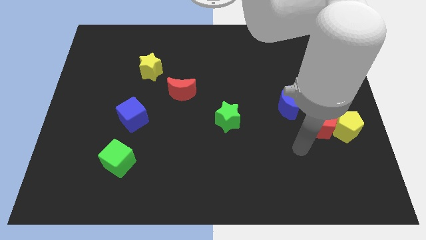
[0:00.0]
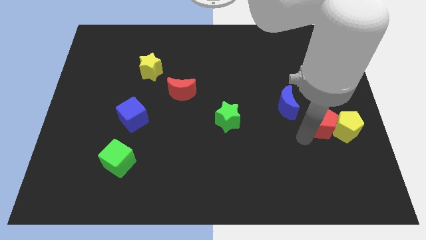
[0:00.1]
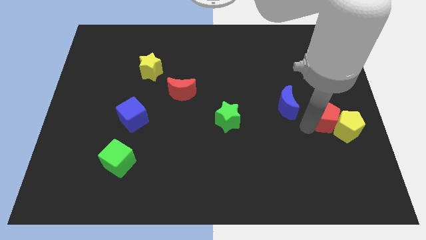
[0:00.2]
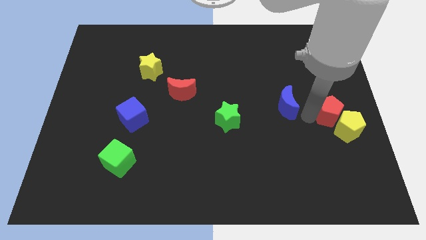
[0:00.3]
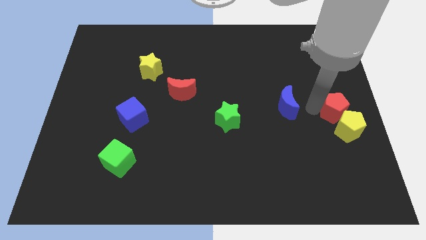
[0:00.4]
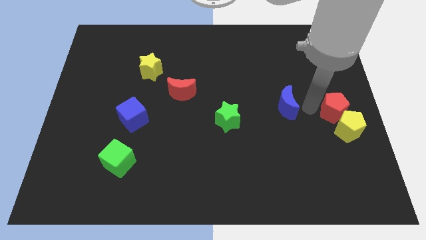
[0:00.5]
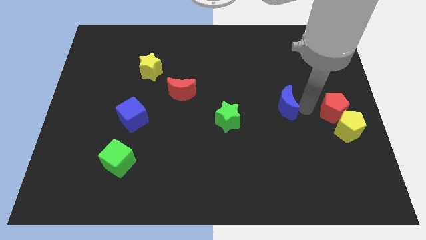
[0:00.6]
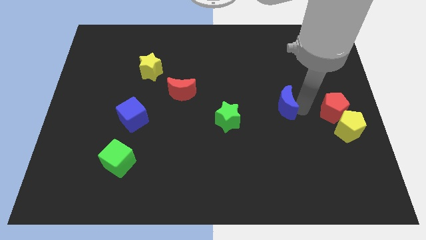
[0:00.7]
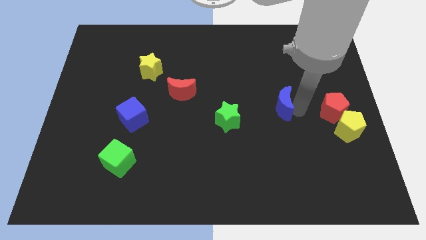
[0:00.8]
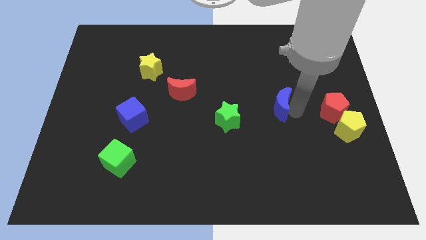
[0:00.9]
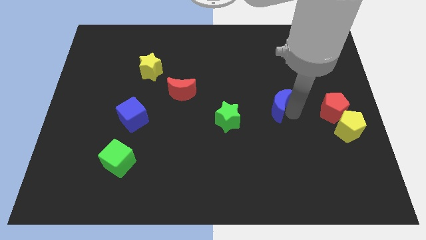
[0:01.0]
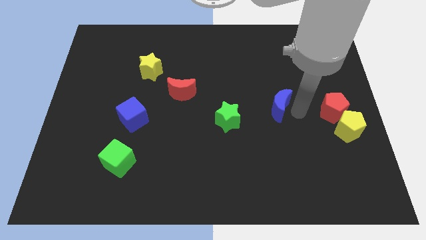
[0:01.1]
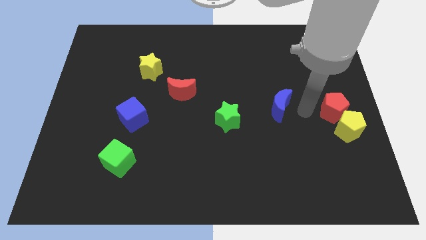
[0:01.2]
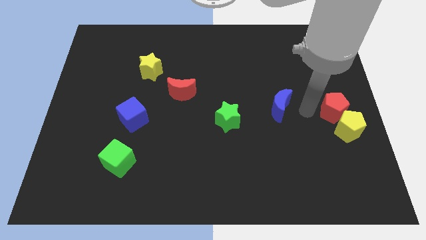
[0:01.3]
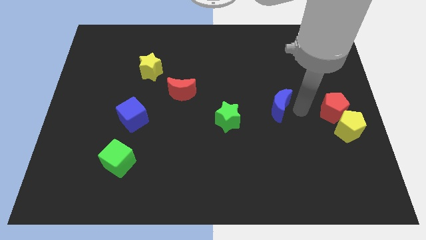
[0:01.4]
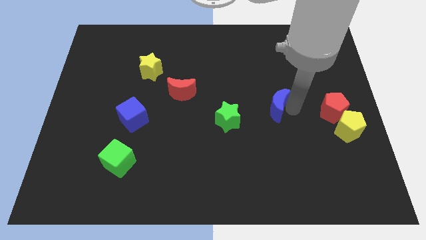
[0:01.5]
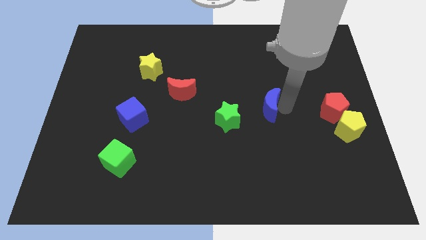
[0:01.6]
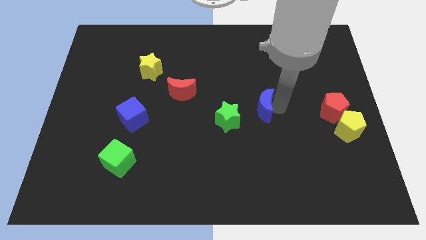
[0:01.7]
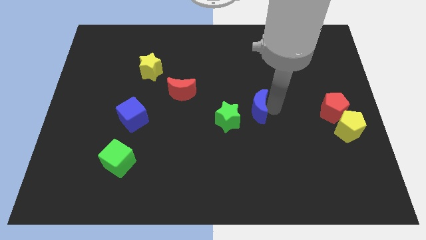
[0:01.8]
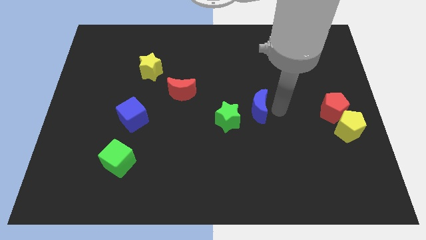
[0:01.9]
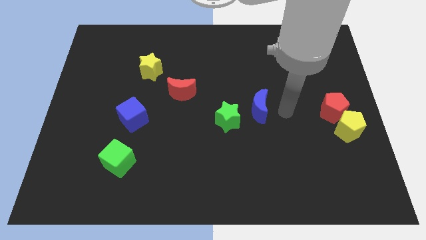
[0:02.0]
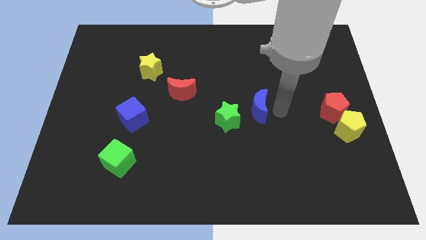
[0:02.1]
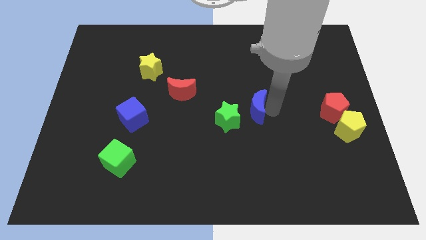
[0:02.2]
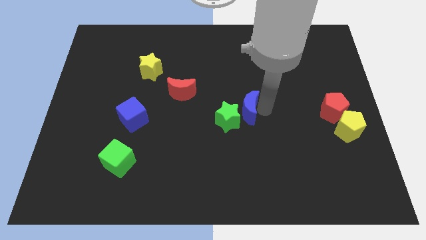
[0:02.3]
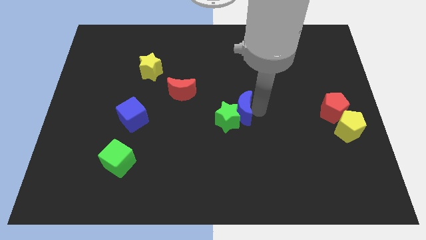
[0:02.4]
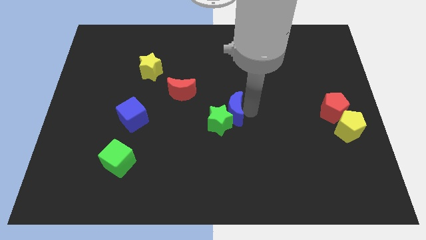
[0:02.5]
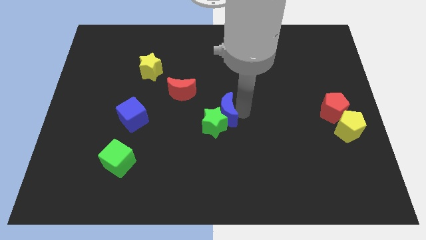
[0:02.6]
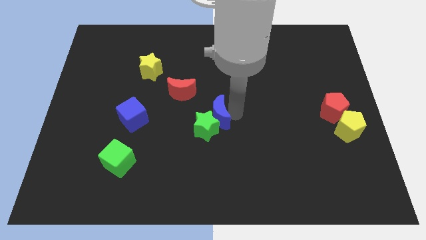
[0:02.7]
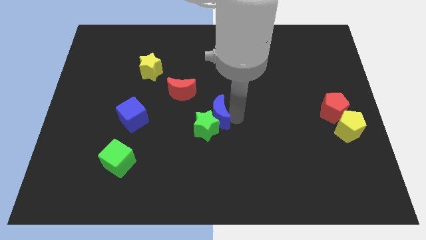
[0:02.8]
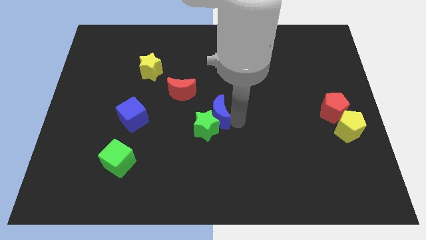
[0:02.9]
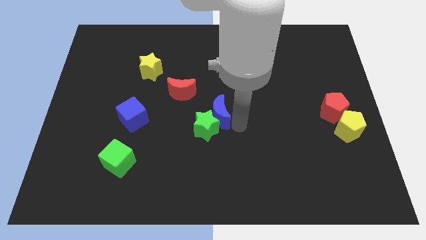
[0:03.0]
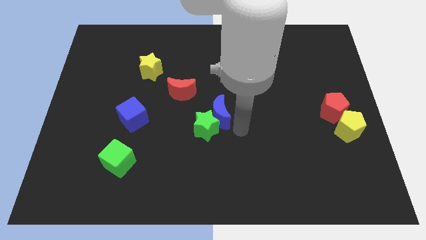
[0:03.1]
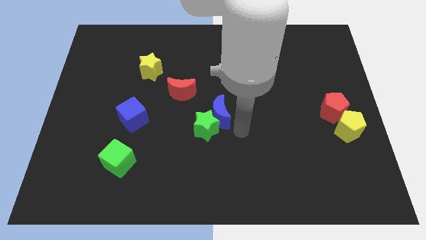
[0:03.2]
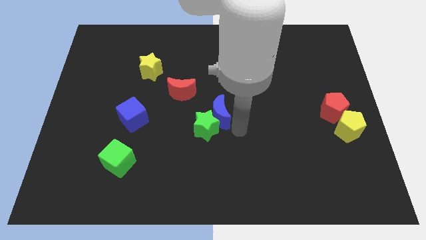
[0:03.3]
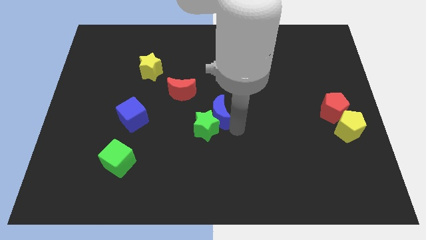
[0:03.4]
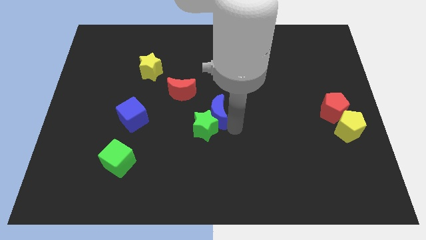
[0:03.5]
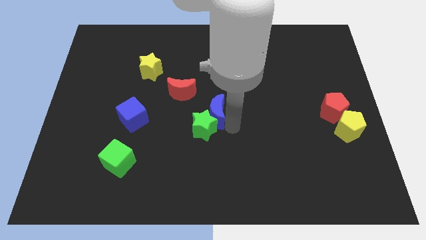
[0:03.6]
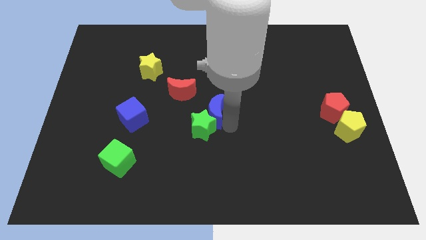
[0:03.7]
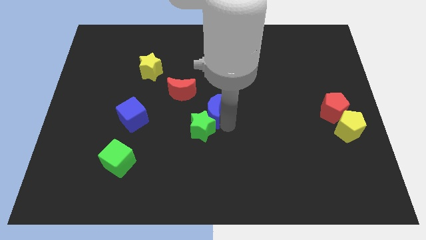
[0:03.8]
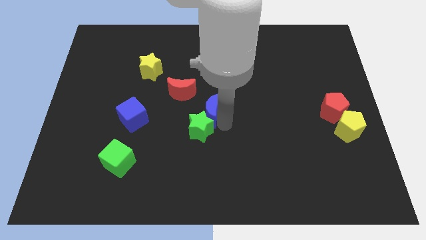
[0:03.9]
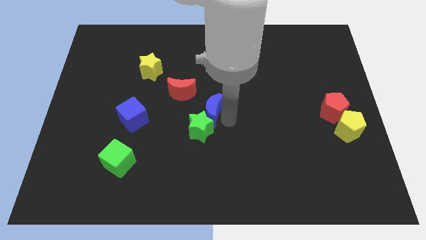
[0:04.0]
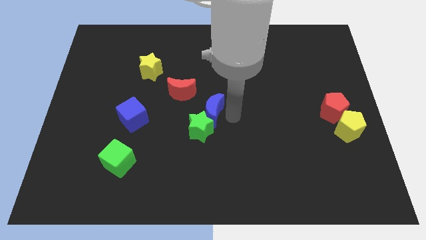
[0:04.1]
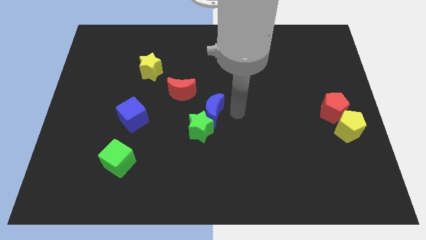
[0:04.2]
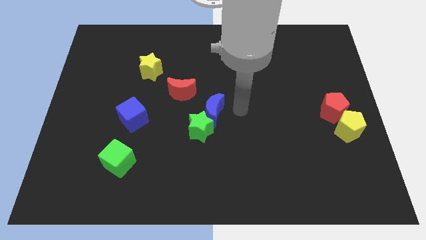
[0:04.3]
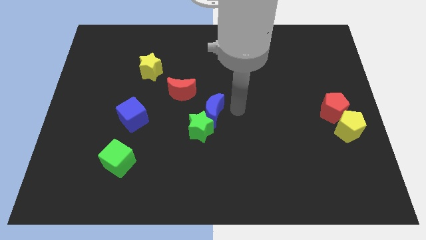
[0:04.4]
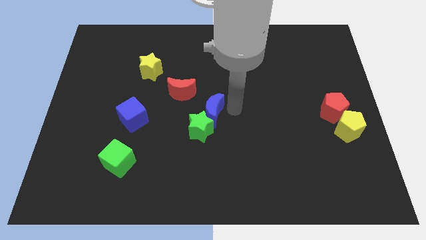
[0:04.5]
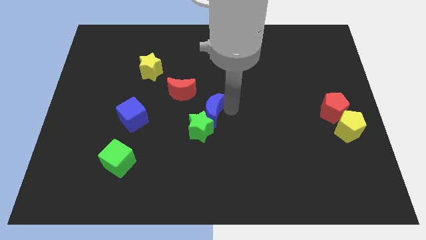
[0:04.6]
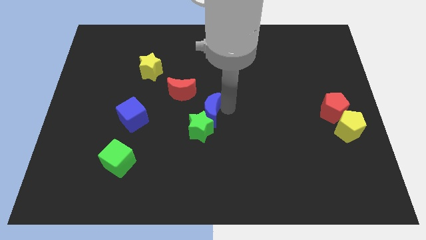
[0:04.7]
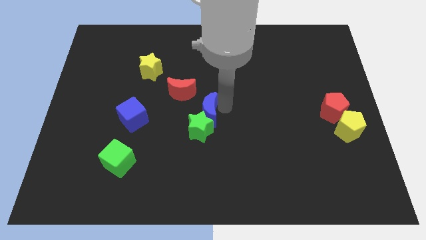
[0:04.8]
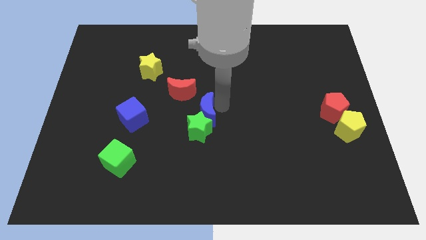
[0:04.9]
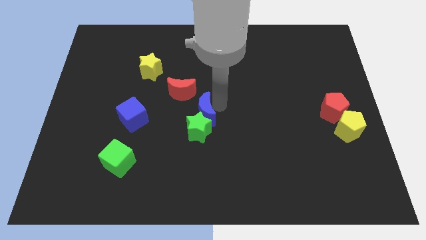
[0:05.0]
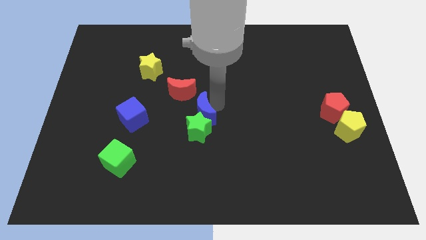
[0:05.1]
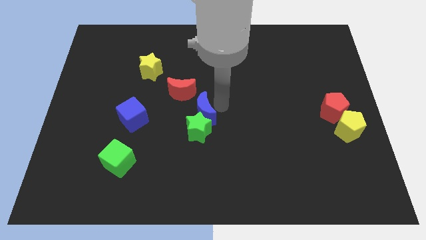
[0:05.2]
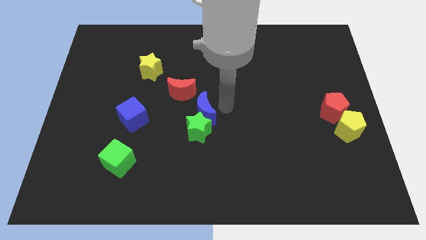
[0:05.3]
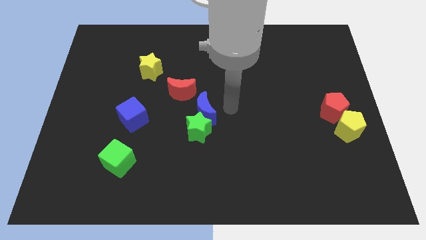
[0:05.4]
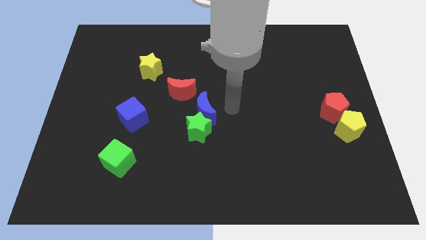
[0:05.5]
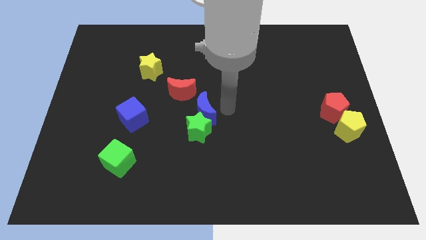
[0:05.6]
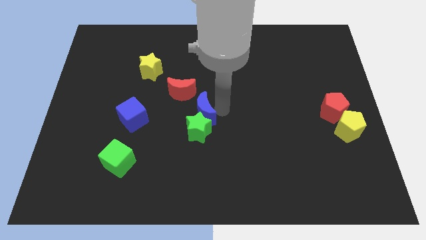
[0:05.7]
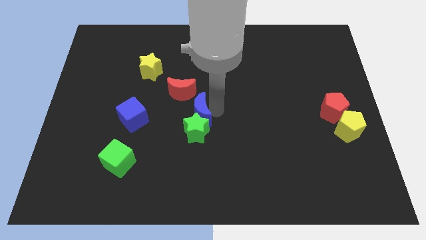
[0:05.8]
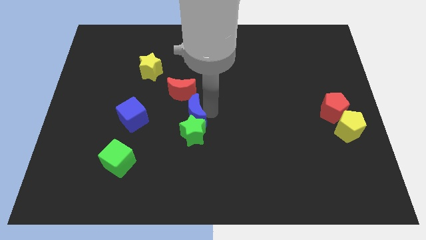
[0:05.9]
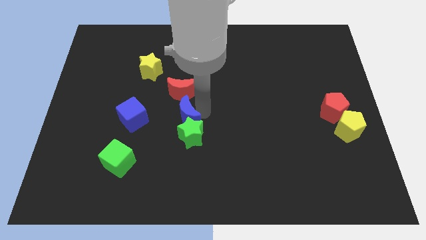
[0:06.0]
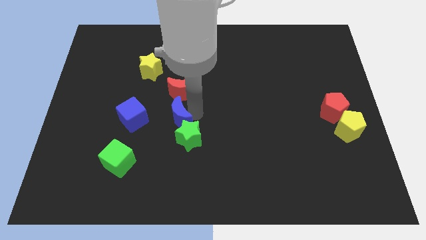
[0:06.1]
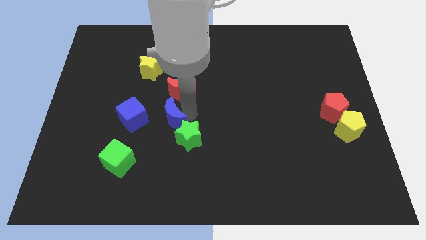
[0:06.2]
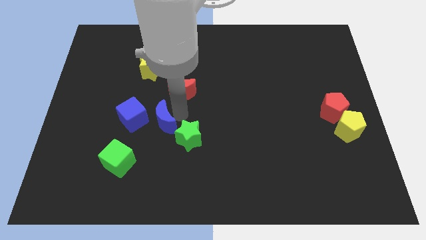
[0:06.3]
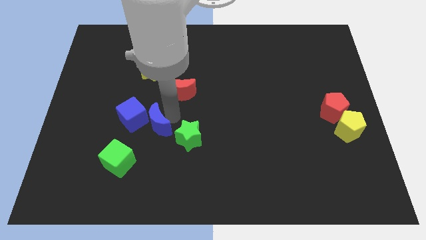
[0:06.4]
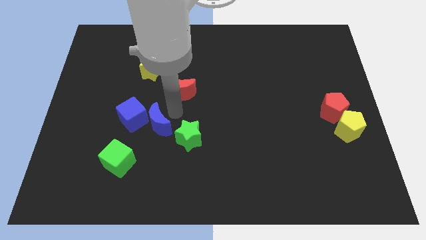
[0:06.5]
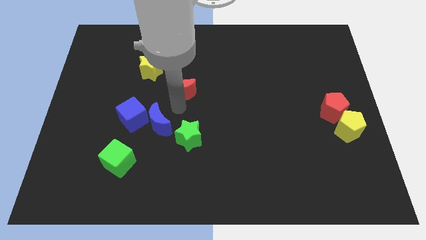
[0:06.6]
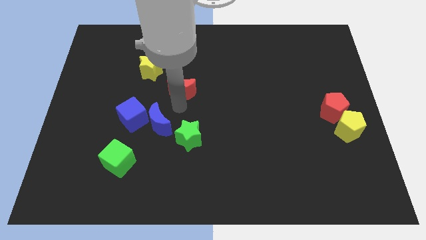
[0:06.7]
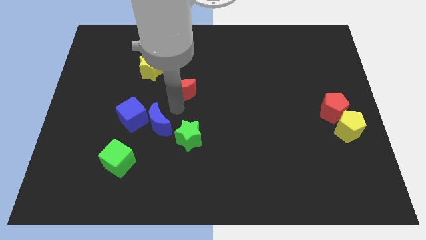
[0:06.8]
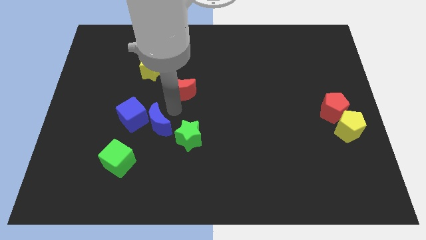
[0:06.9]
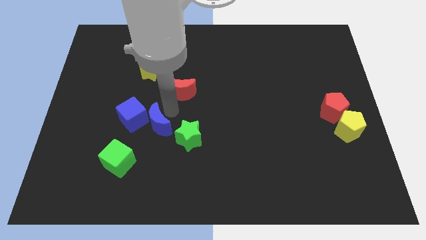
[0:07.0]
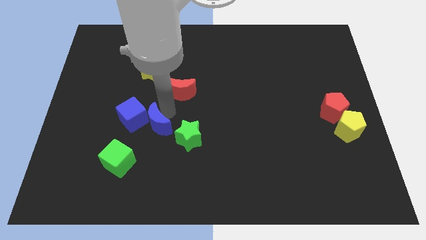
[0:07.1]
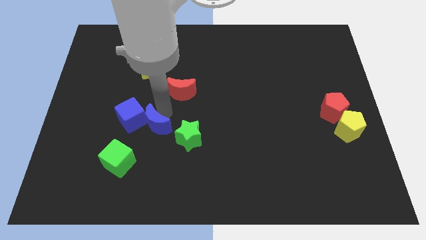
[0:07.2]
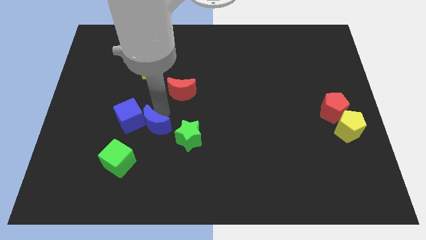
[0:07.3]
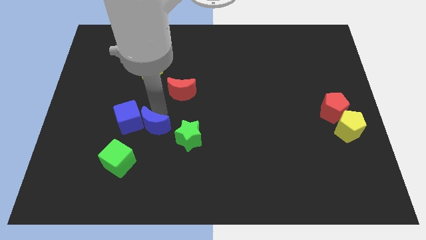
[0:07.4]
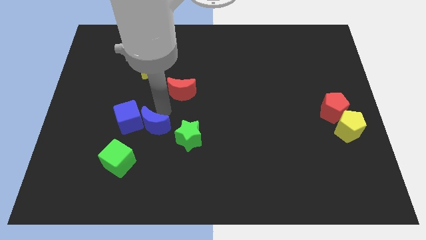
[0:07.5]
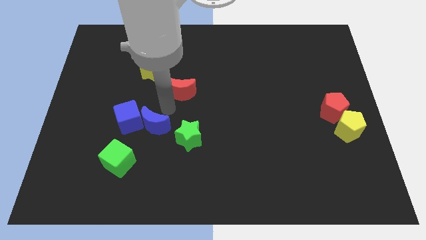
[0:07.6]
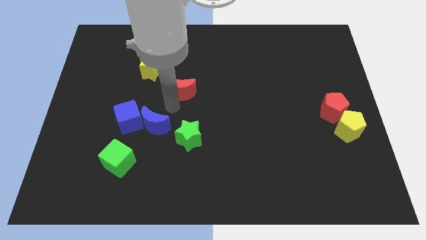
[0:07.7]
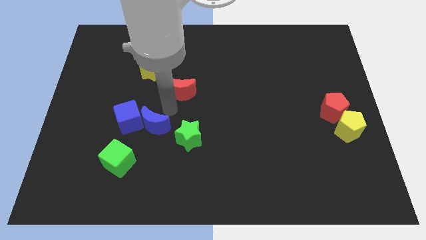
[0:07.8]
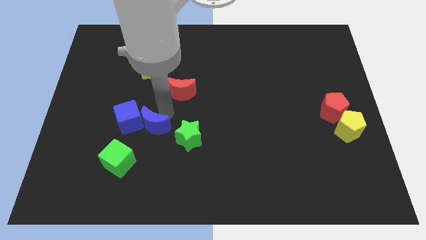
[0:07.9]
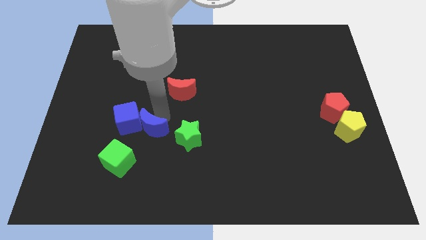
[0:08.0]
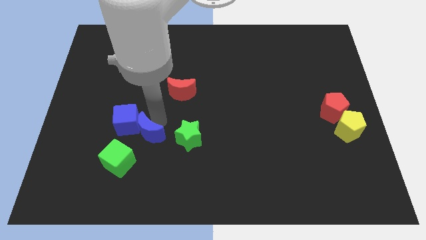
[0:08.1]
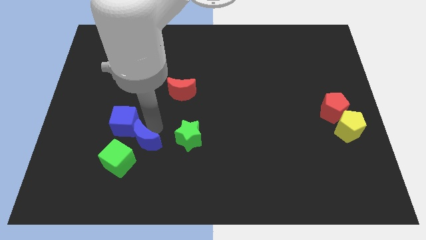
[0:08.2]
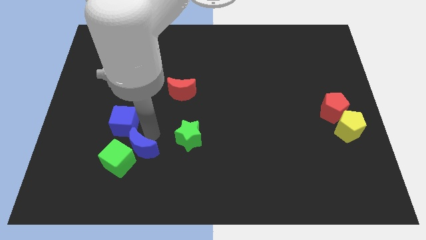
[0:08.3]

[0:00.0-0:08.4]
slide the blue moon towards the green cube
